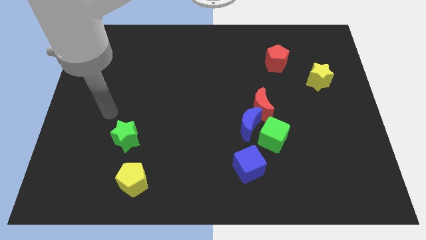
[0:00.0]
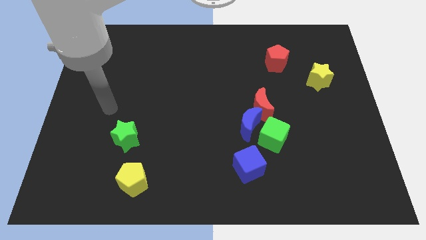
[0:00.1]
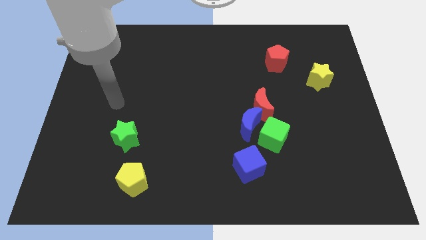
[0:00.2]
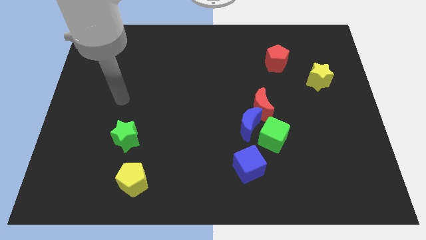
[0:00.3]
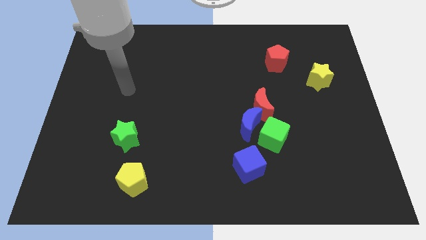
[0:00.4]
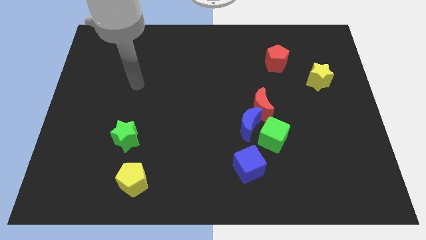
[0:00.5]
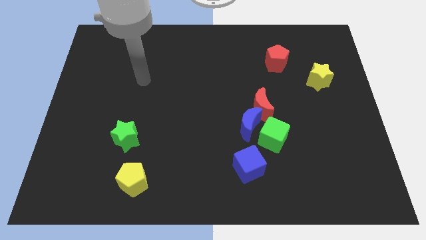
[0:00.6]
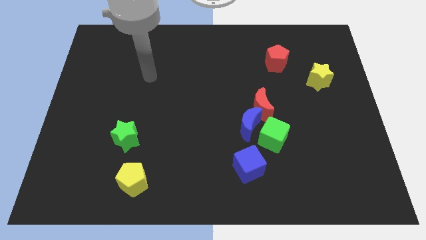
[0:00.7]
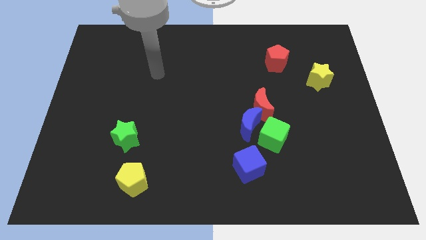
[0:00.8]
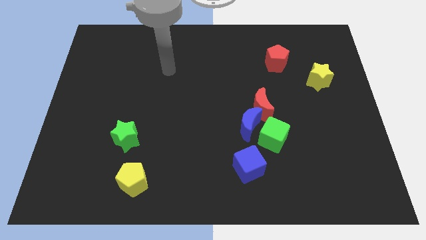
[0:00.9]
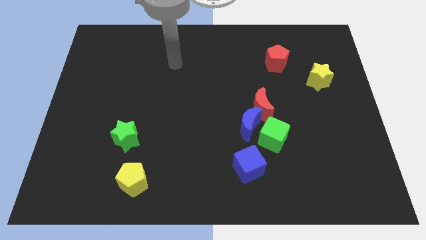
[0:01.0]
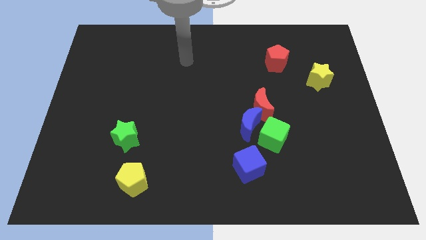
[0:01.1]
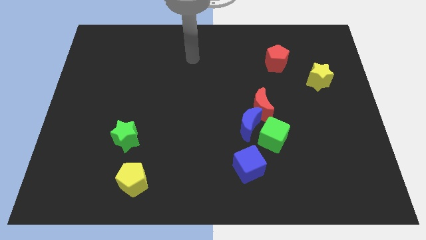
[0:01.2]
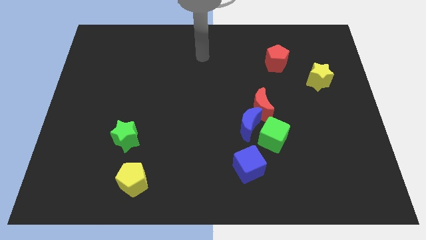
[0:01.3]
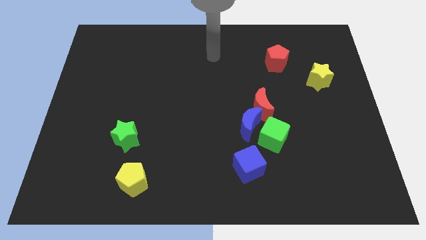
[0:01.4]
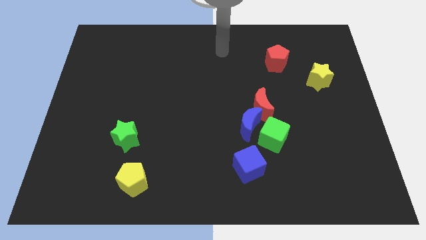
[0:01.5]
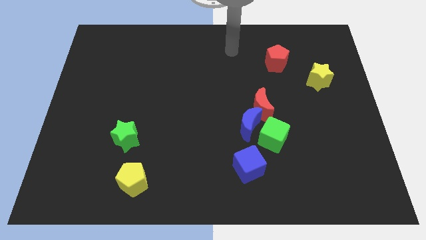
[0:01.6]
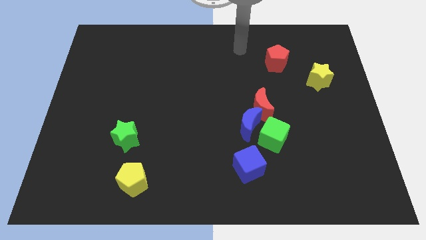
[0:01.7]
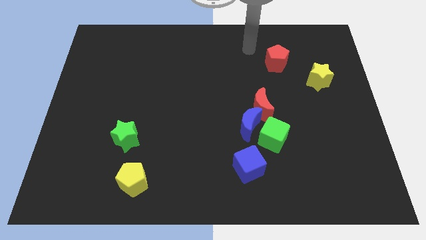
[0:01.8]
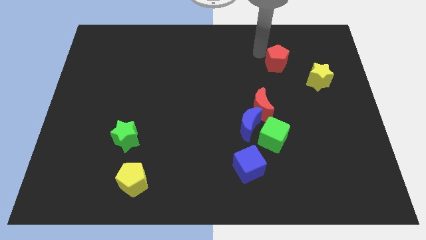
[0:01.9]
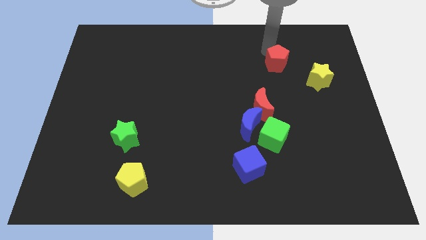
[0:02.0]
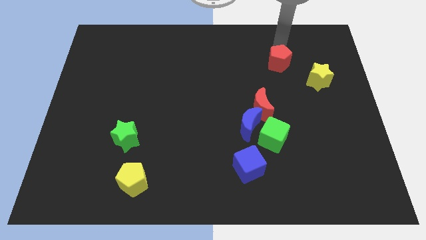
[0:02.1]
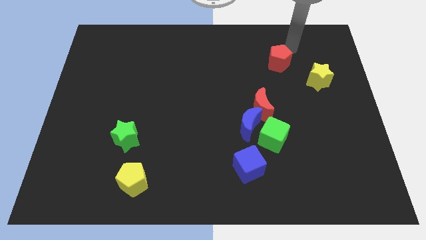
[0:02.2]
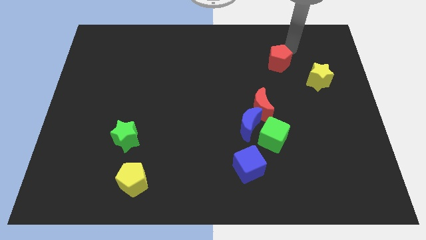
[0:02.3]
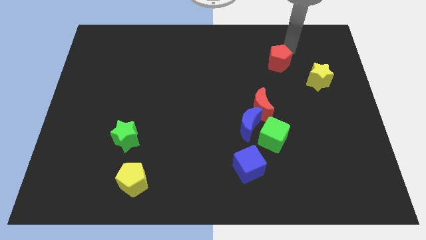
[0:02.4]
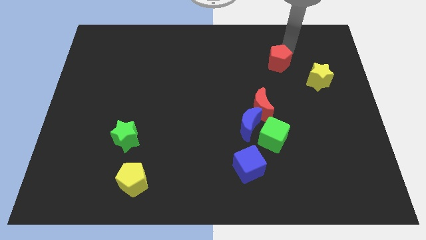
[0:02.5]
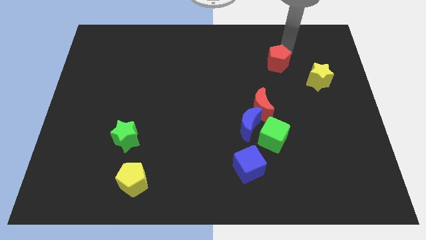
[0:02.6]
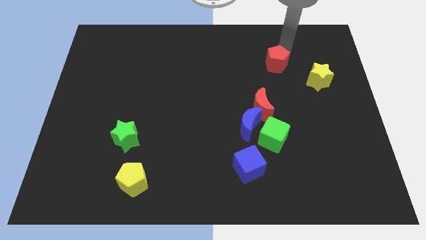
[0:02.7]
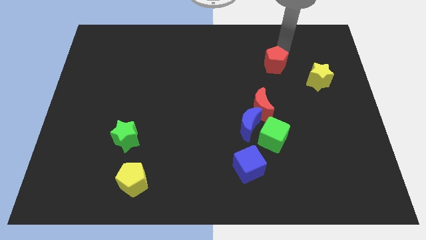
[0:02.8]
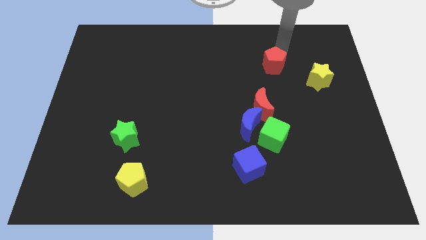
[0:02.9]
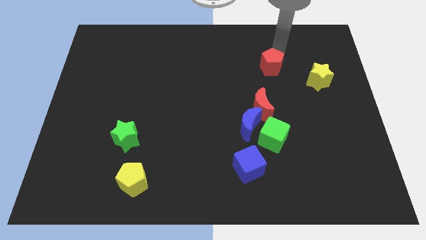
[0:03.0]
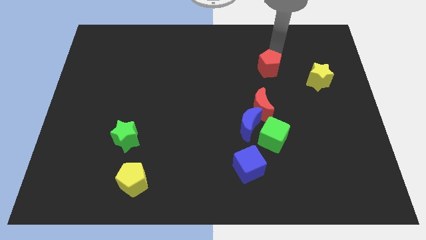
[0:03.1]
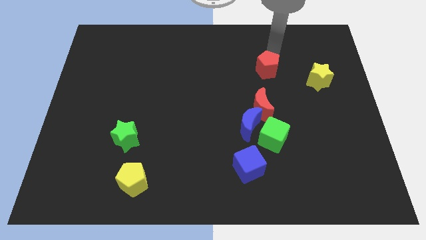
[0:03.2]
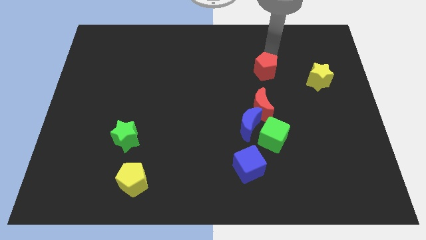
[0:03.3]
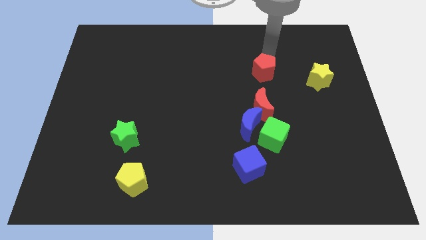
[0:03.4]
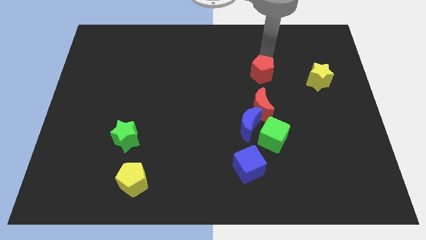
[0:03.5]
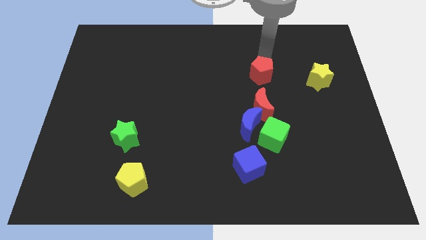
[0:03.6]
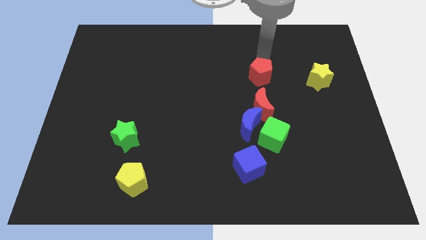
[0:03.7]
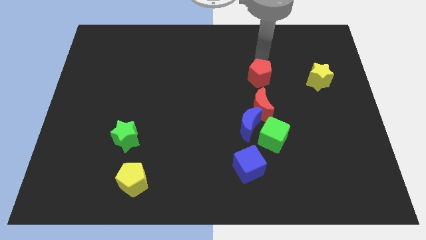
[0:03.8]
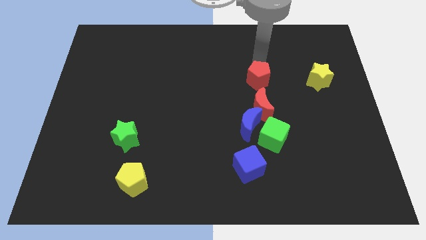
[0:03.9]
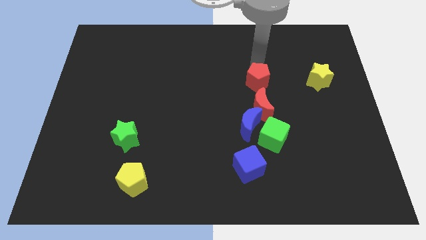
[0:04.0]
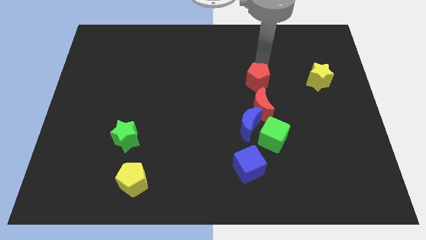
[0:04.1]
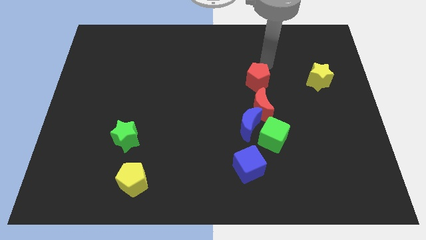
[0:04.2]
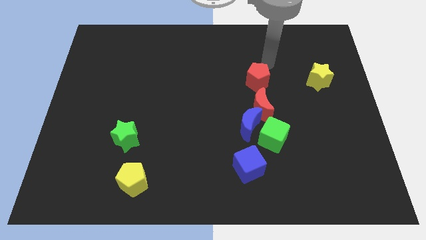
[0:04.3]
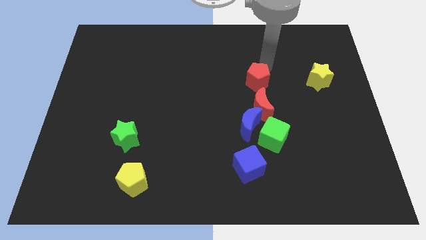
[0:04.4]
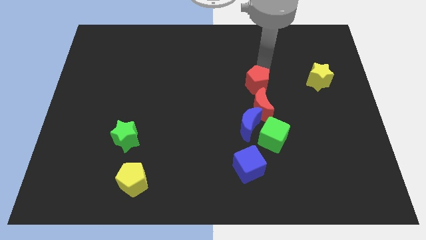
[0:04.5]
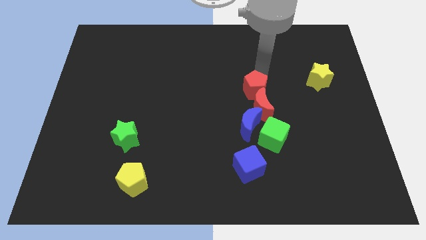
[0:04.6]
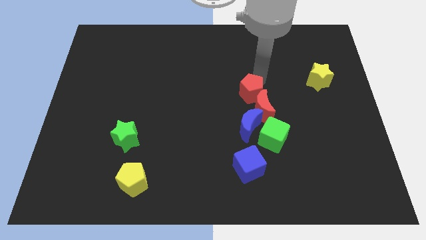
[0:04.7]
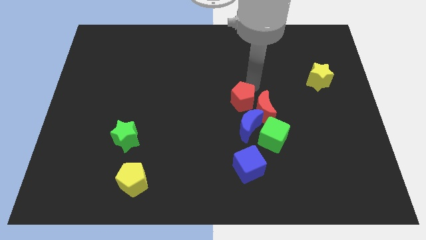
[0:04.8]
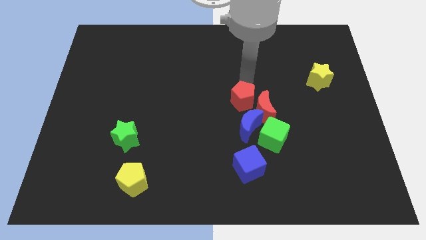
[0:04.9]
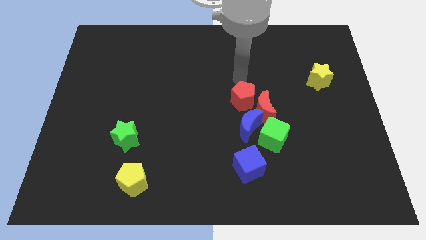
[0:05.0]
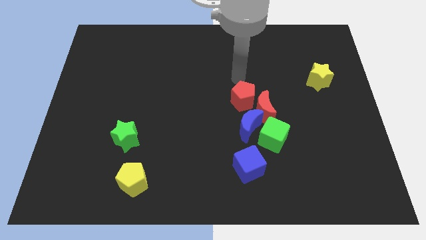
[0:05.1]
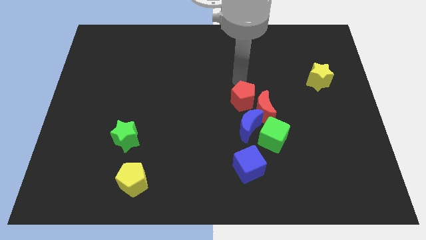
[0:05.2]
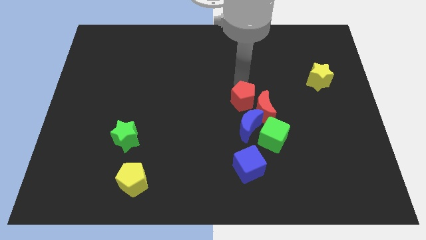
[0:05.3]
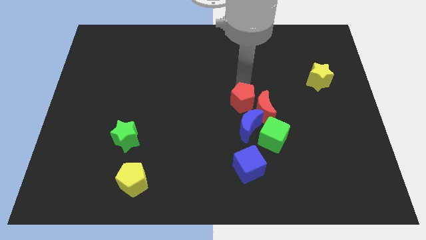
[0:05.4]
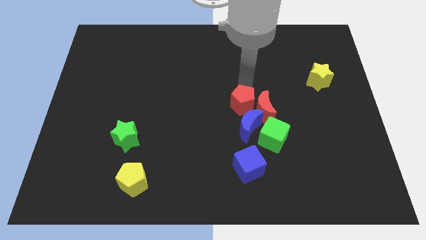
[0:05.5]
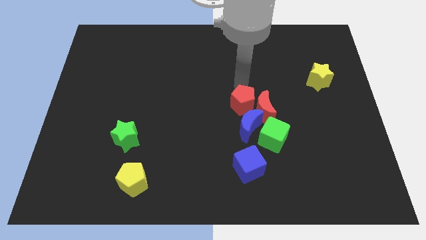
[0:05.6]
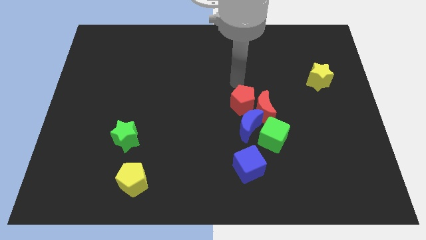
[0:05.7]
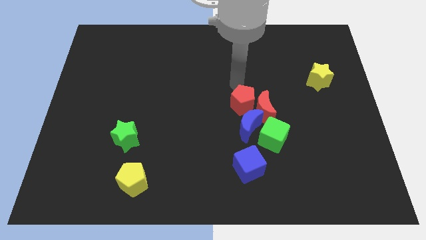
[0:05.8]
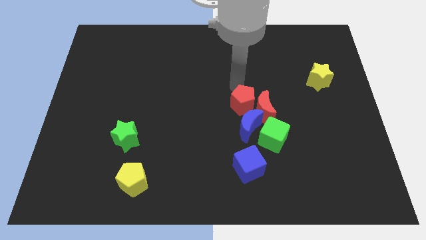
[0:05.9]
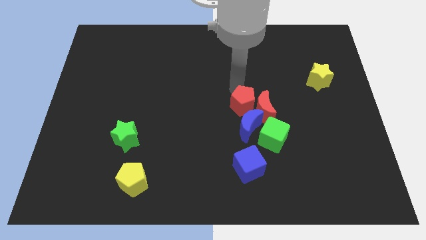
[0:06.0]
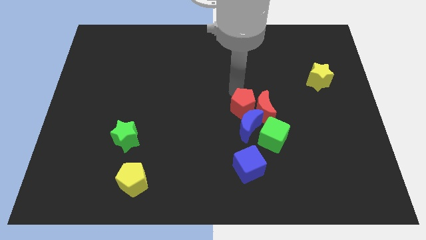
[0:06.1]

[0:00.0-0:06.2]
slide the red pentagon next to the blue moon

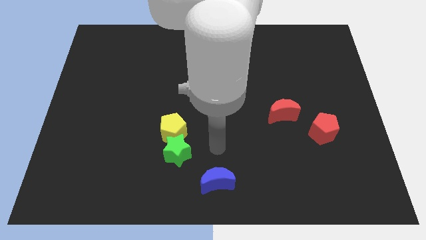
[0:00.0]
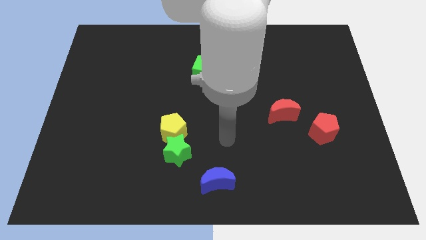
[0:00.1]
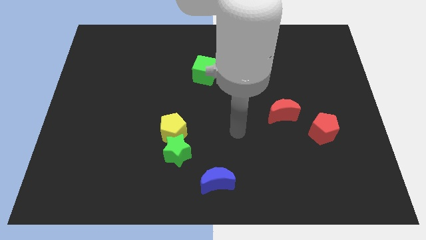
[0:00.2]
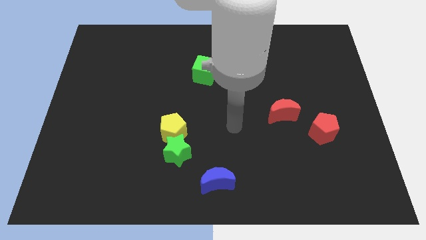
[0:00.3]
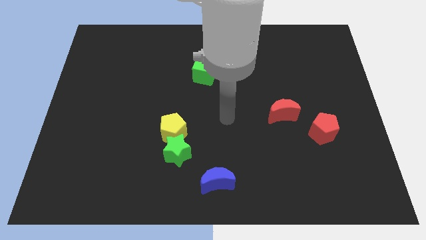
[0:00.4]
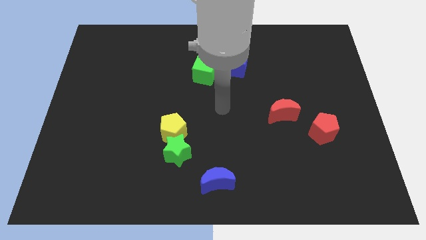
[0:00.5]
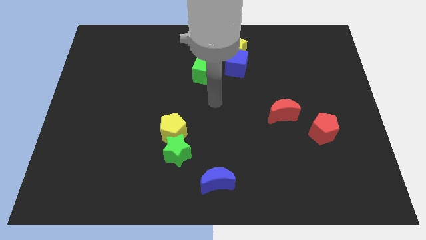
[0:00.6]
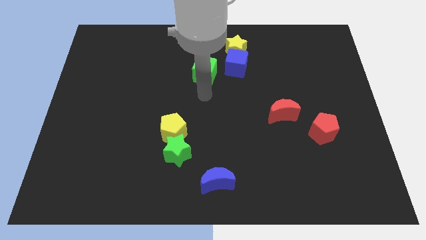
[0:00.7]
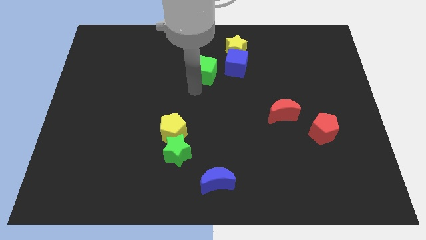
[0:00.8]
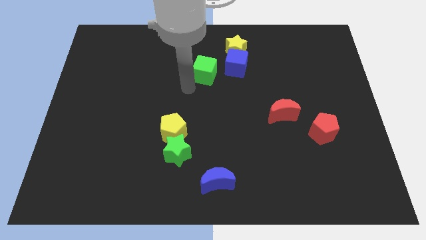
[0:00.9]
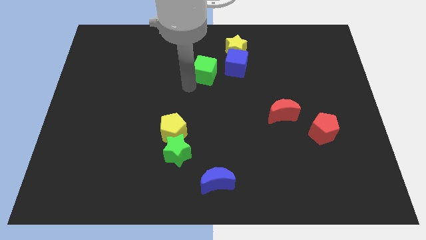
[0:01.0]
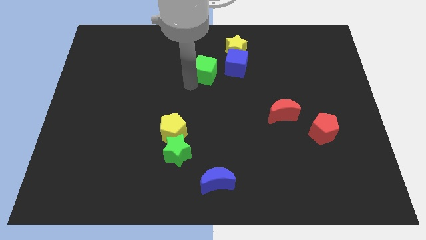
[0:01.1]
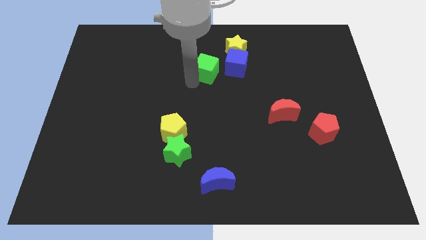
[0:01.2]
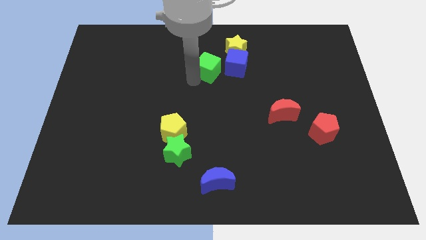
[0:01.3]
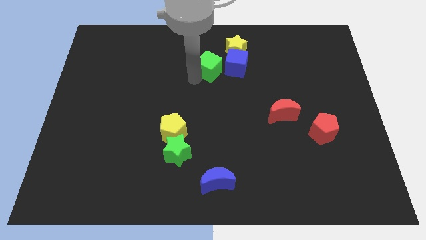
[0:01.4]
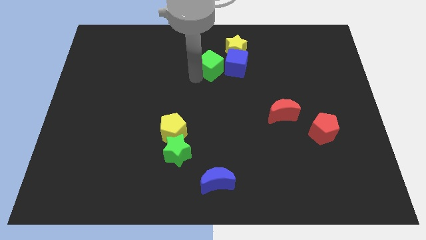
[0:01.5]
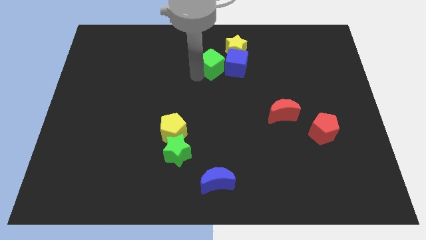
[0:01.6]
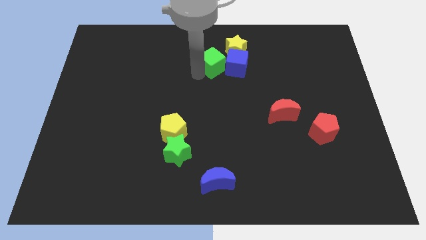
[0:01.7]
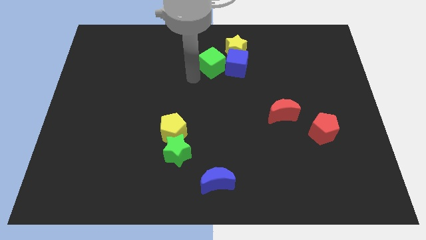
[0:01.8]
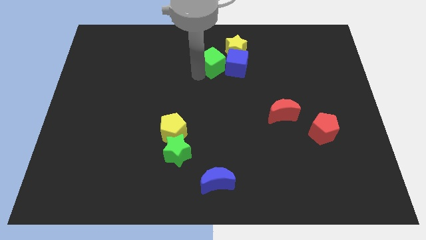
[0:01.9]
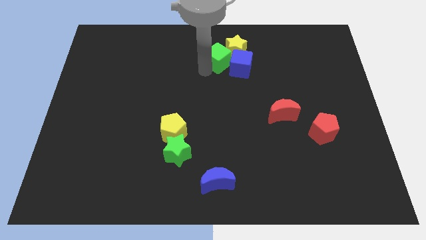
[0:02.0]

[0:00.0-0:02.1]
move the green cube close to the yellow star
